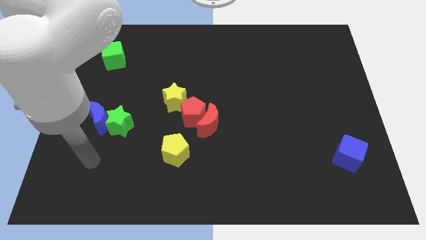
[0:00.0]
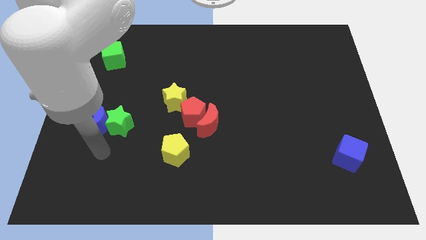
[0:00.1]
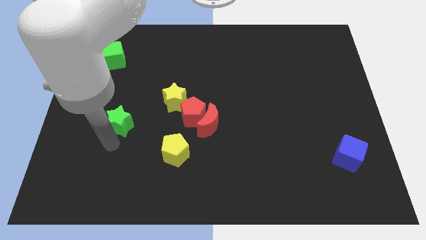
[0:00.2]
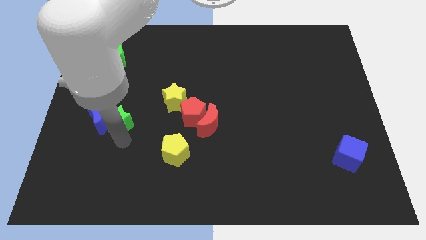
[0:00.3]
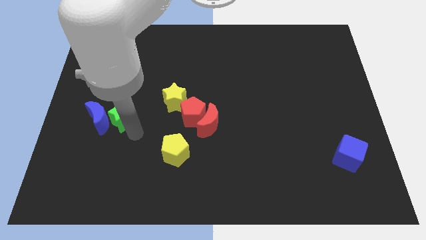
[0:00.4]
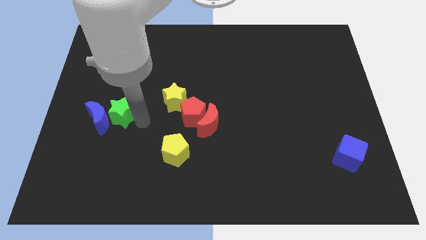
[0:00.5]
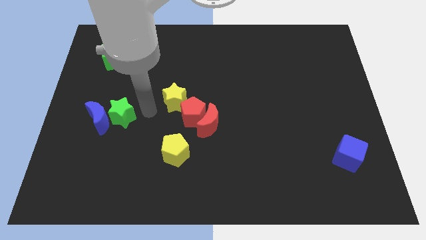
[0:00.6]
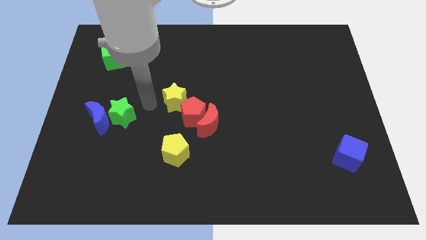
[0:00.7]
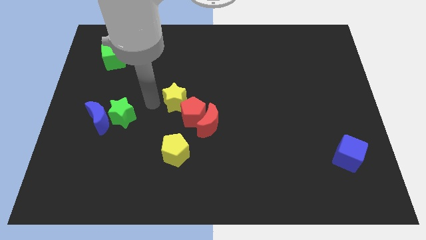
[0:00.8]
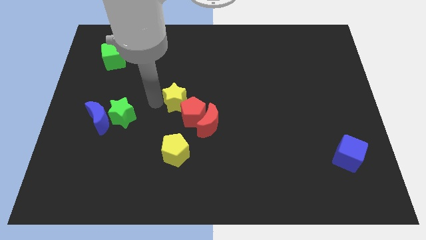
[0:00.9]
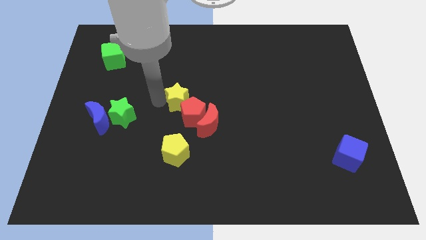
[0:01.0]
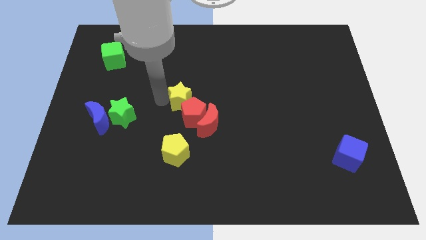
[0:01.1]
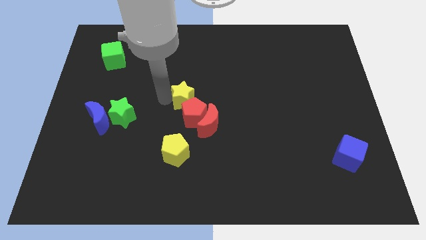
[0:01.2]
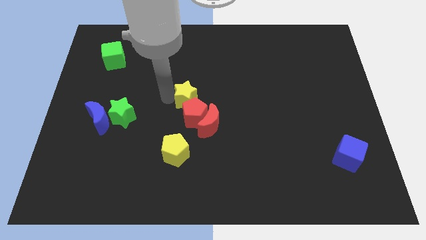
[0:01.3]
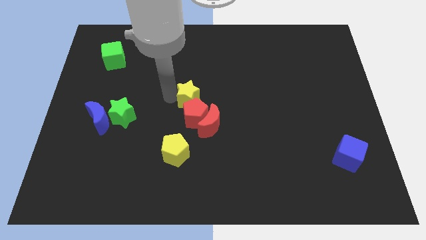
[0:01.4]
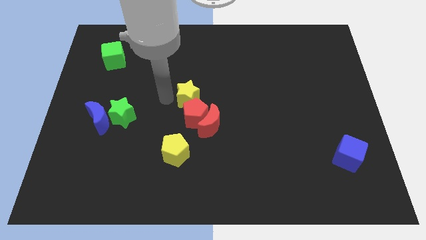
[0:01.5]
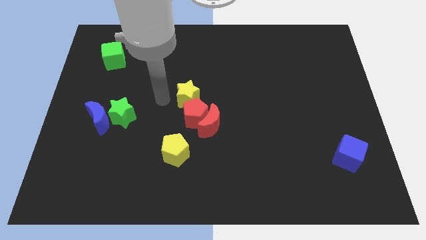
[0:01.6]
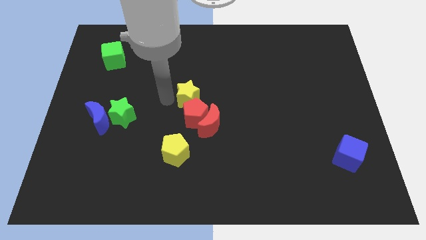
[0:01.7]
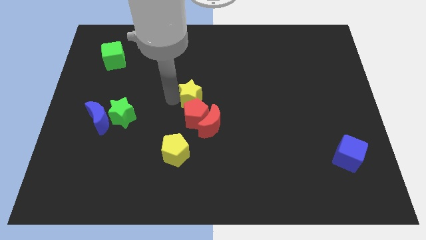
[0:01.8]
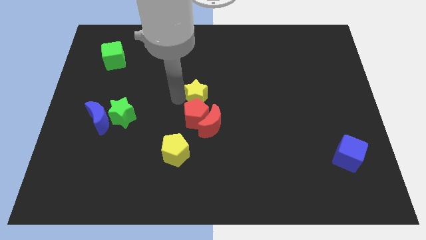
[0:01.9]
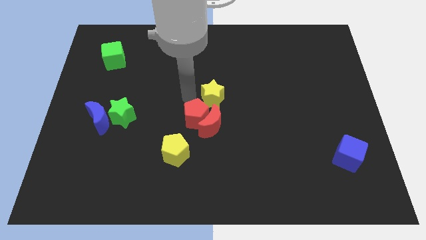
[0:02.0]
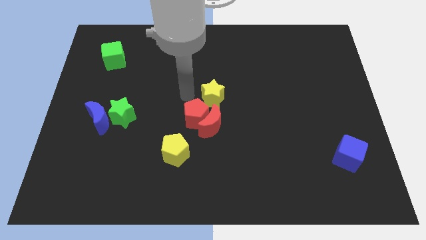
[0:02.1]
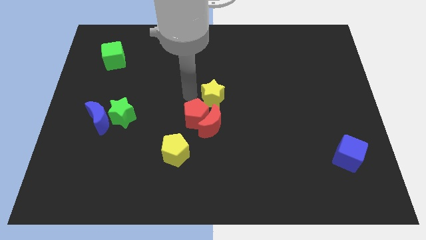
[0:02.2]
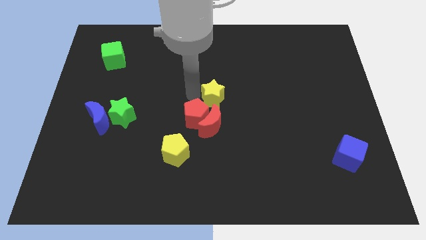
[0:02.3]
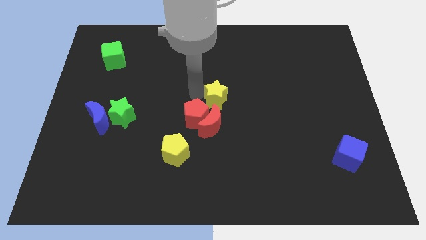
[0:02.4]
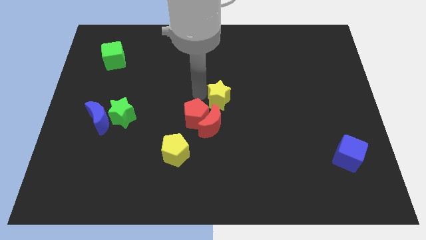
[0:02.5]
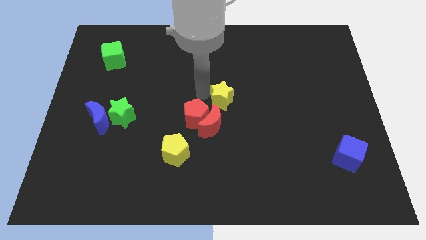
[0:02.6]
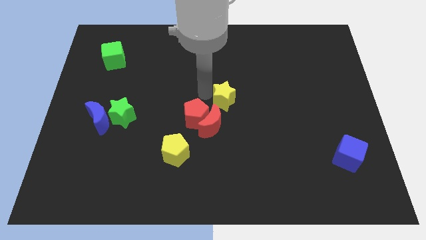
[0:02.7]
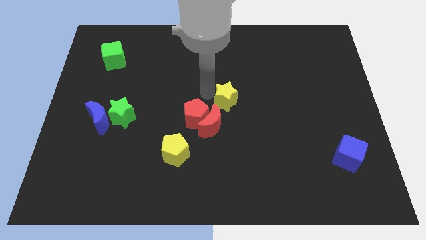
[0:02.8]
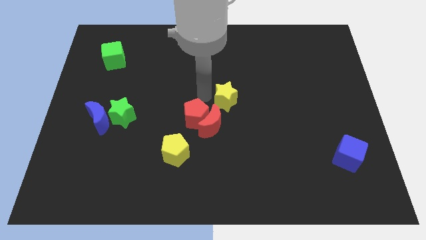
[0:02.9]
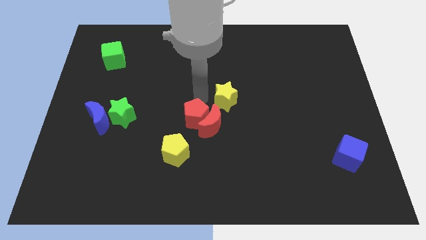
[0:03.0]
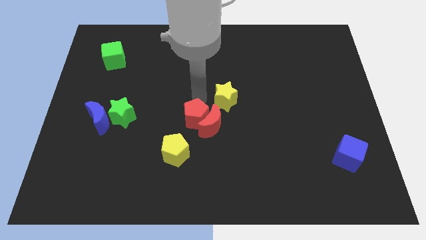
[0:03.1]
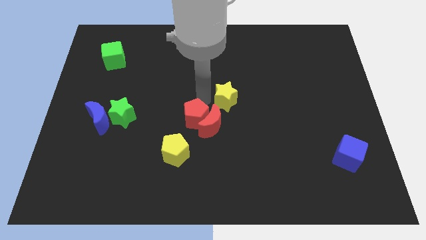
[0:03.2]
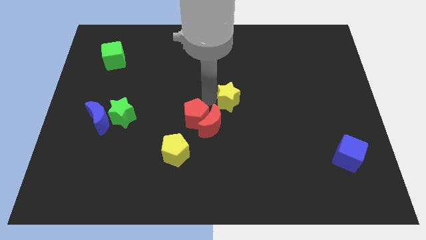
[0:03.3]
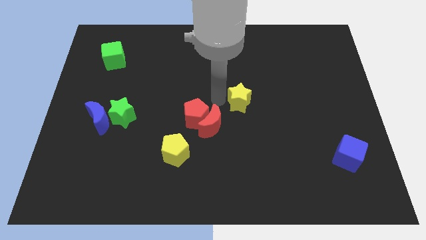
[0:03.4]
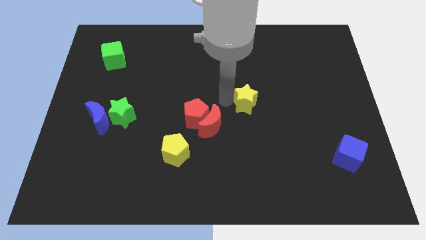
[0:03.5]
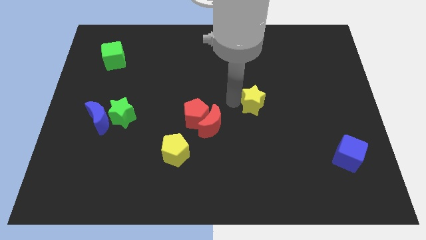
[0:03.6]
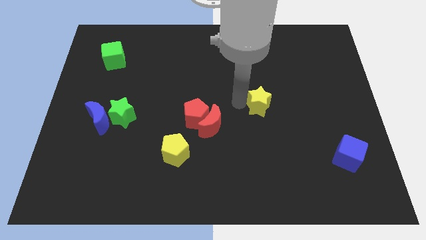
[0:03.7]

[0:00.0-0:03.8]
slide the yellow star to the right

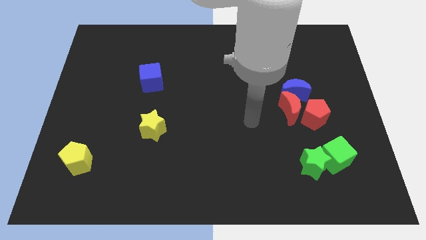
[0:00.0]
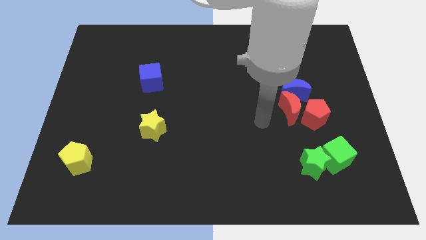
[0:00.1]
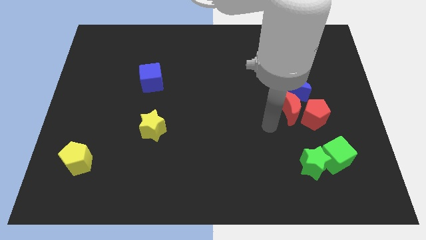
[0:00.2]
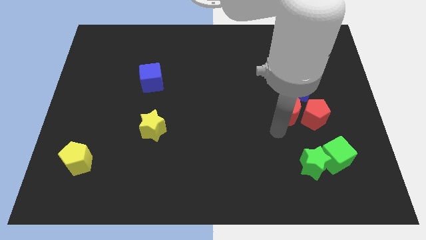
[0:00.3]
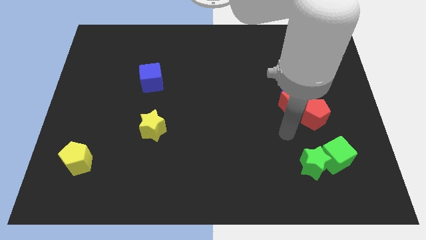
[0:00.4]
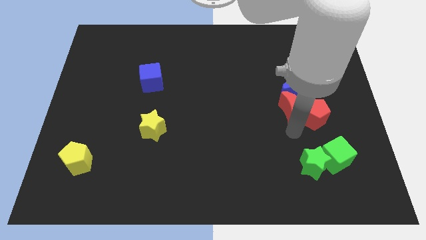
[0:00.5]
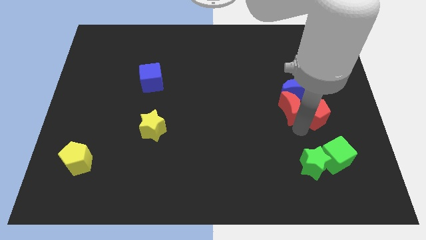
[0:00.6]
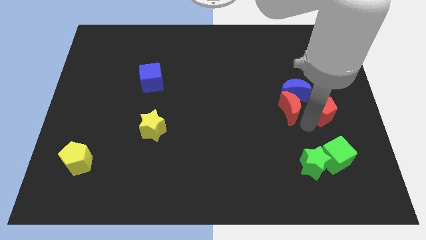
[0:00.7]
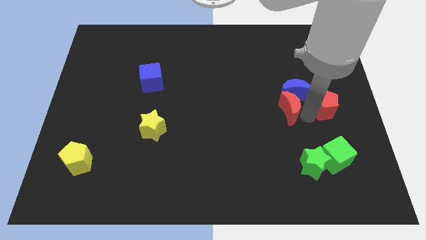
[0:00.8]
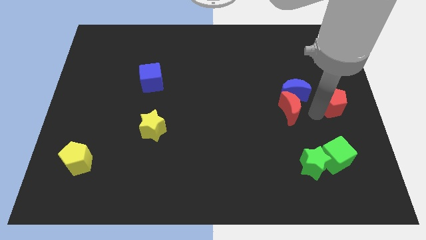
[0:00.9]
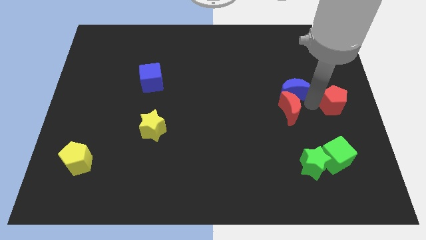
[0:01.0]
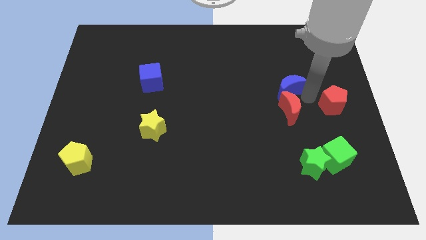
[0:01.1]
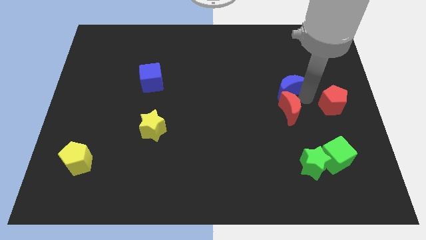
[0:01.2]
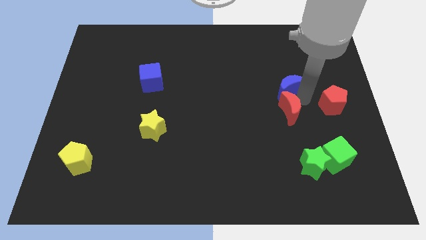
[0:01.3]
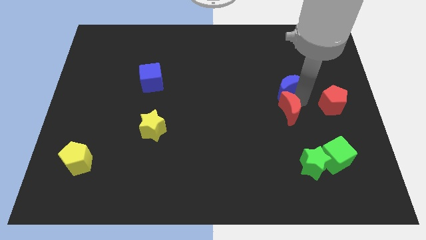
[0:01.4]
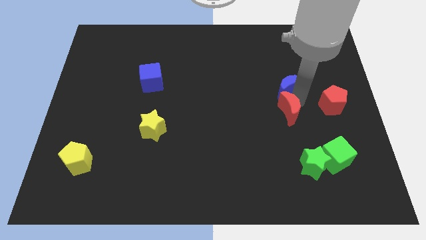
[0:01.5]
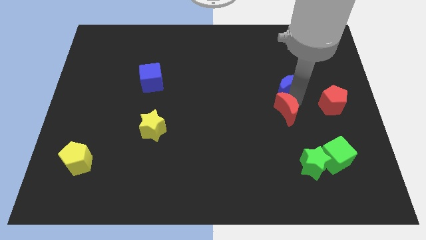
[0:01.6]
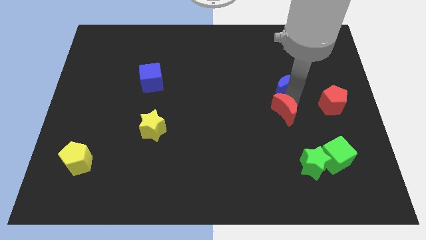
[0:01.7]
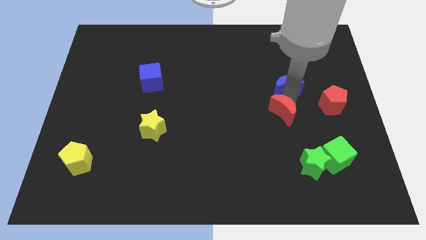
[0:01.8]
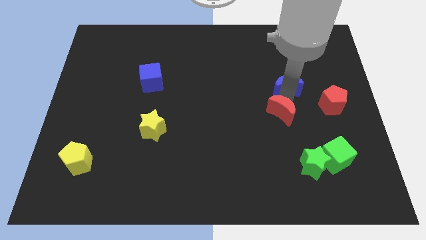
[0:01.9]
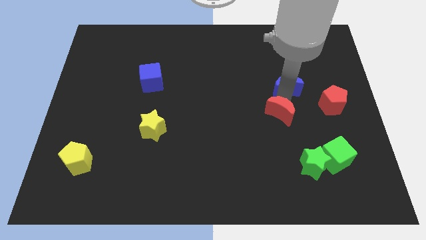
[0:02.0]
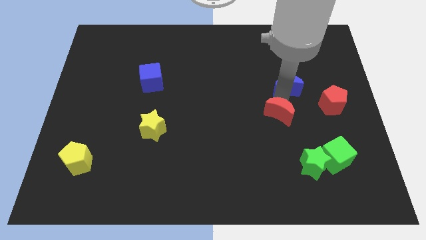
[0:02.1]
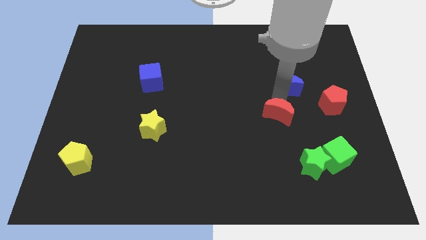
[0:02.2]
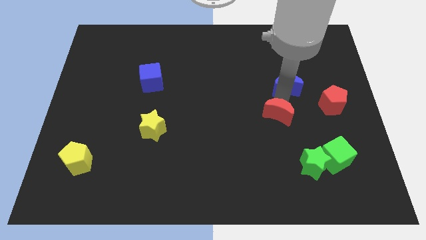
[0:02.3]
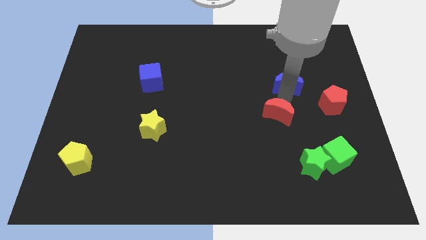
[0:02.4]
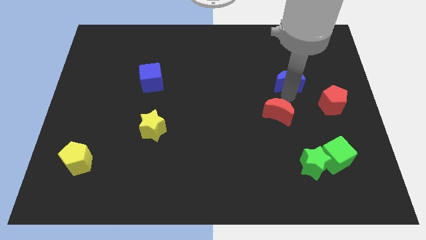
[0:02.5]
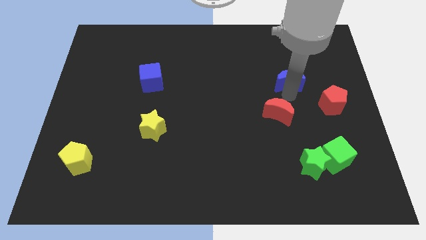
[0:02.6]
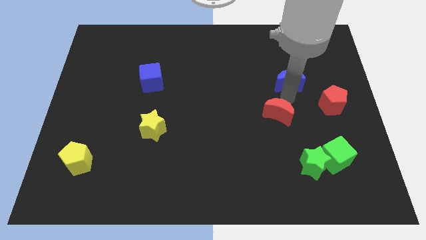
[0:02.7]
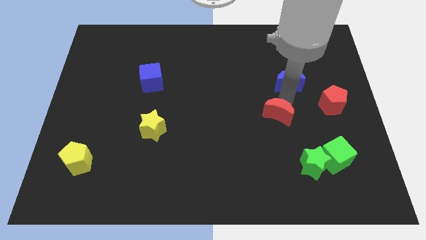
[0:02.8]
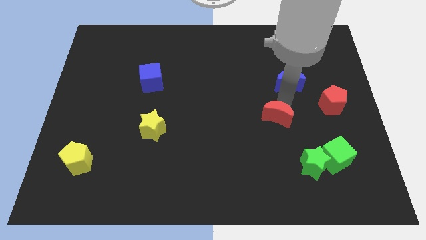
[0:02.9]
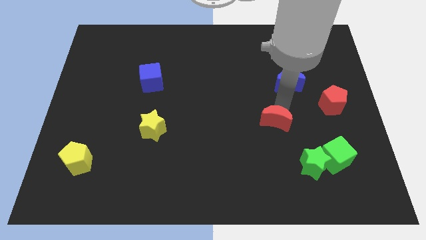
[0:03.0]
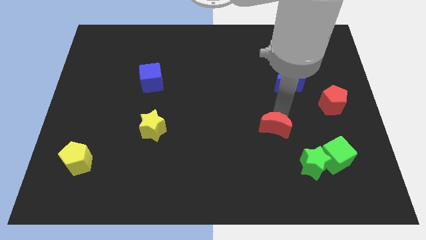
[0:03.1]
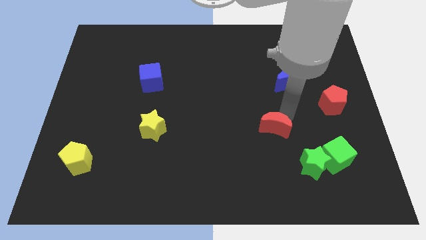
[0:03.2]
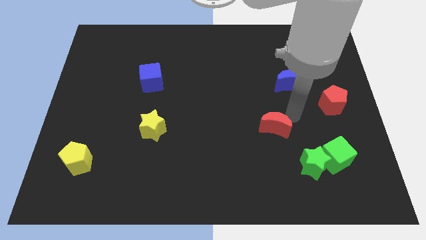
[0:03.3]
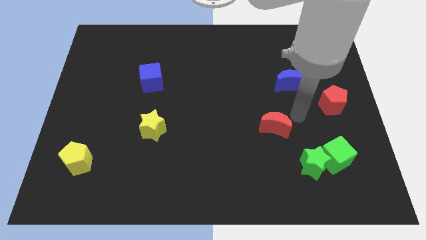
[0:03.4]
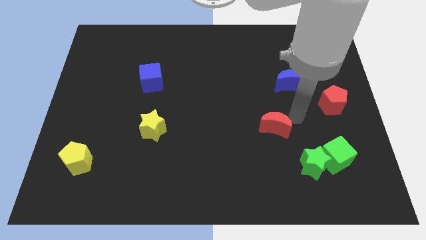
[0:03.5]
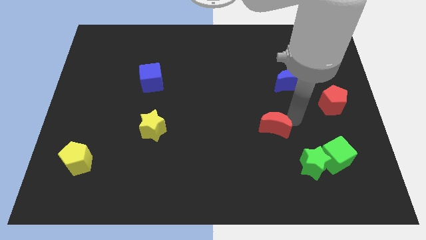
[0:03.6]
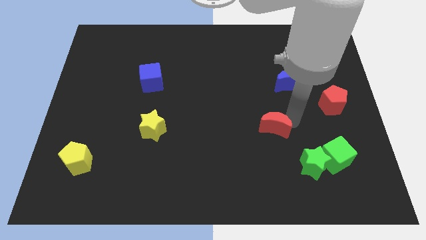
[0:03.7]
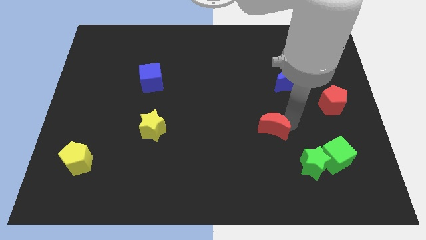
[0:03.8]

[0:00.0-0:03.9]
slide the red moon down and left diagonally a little bit
